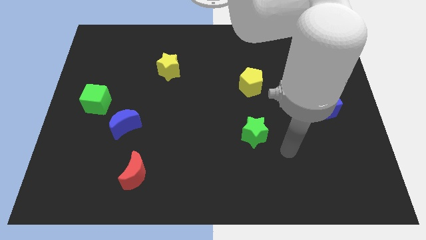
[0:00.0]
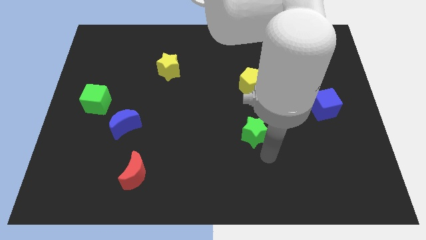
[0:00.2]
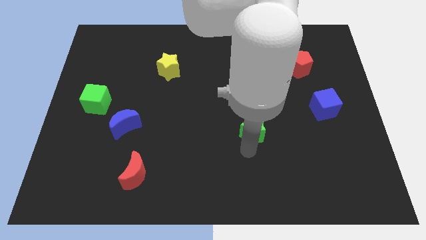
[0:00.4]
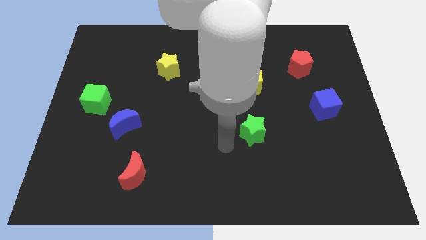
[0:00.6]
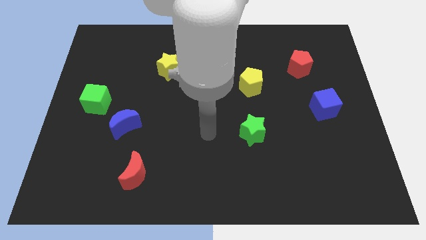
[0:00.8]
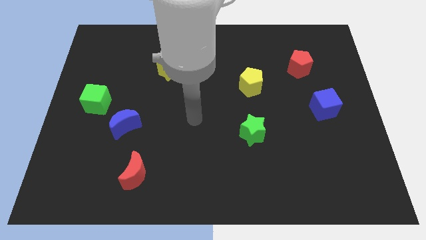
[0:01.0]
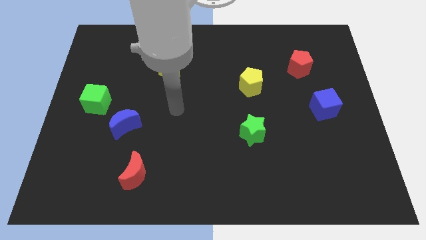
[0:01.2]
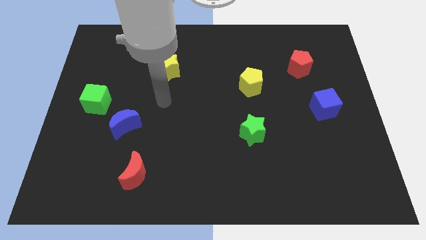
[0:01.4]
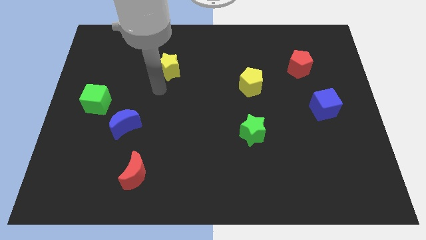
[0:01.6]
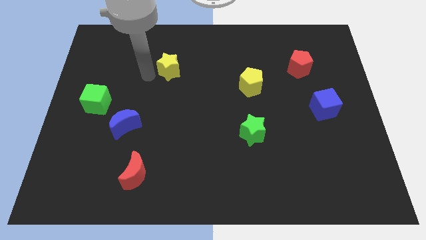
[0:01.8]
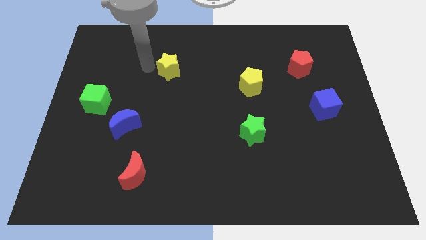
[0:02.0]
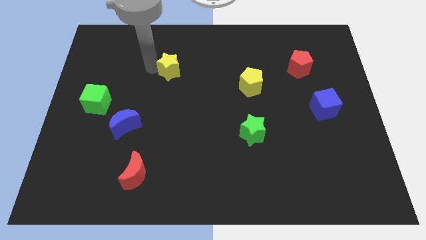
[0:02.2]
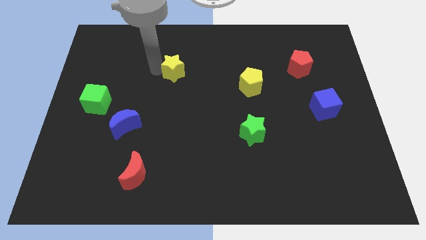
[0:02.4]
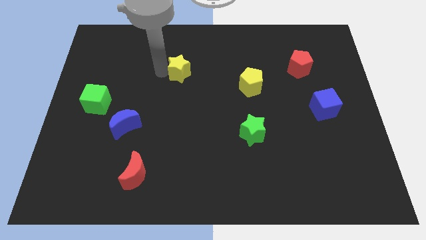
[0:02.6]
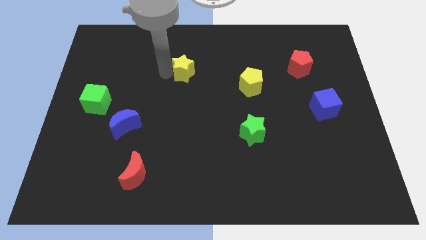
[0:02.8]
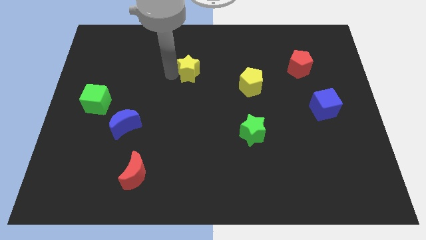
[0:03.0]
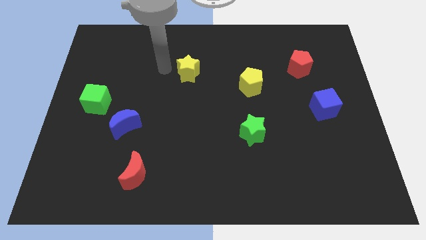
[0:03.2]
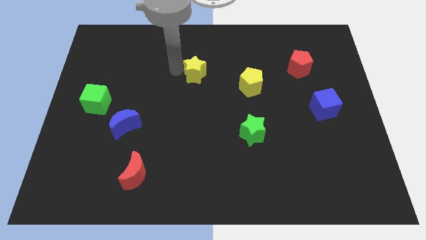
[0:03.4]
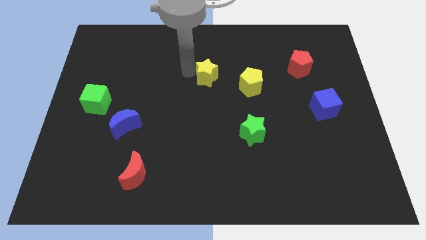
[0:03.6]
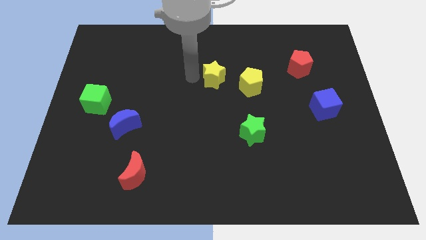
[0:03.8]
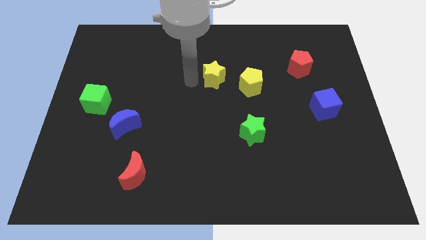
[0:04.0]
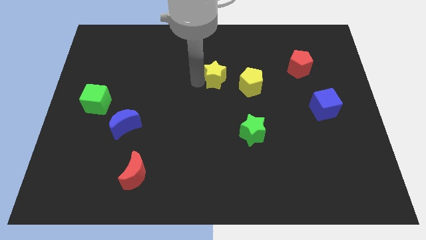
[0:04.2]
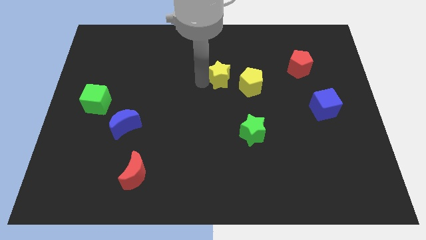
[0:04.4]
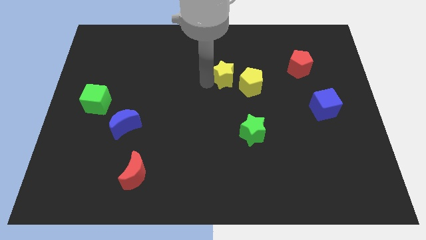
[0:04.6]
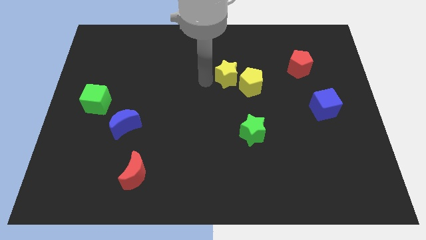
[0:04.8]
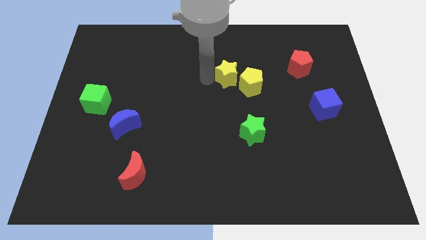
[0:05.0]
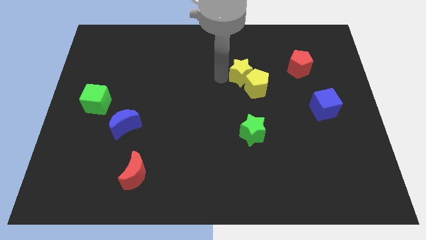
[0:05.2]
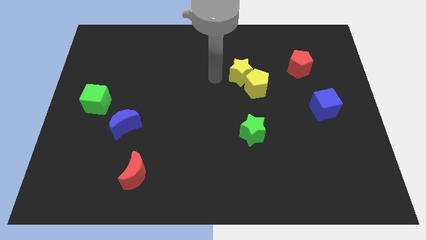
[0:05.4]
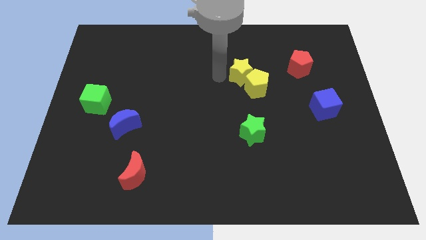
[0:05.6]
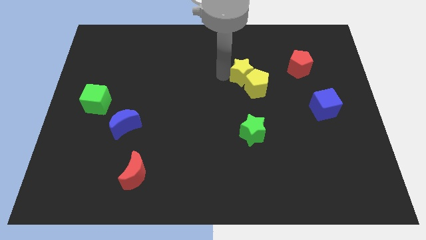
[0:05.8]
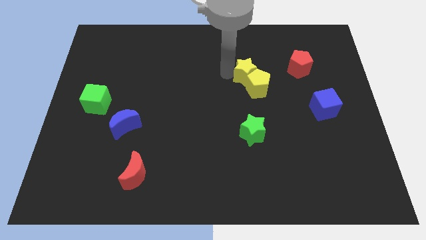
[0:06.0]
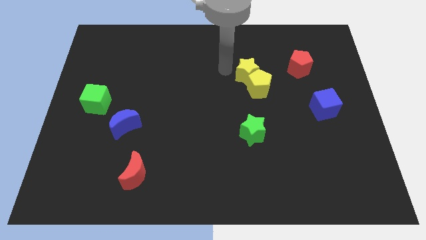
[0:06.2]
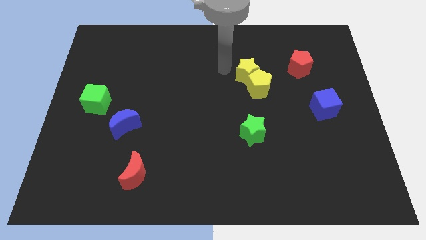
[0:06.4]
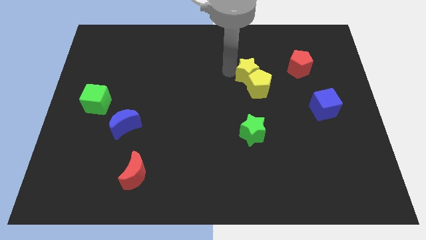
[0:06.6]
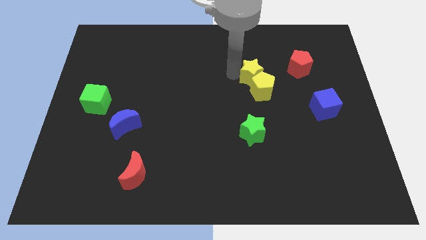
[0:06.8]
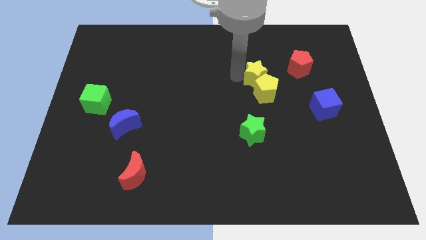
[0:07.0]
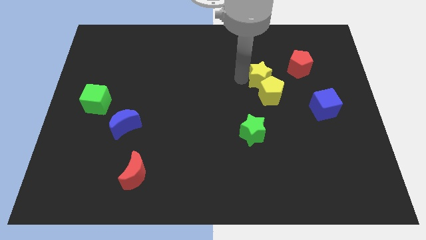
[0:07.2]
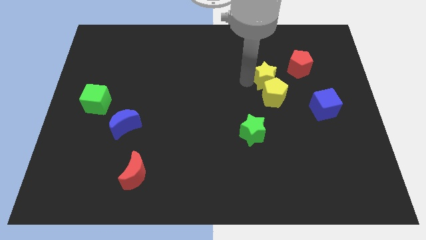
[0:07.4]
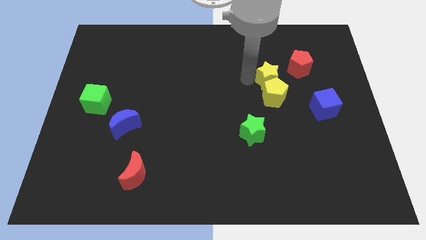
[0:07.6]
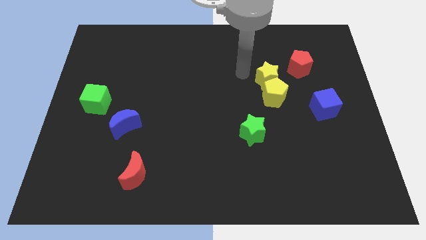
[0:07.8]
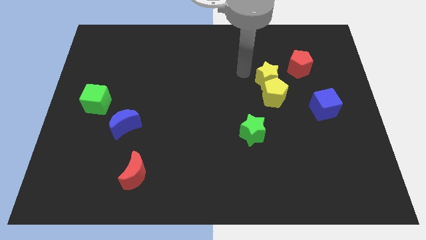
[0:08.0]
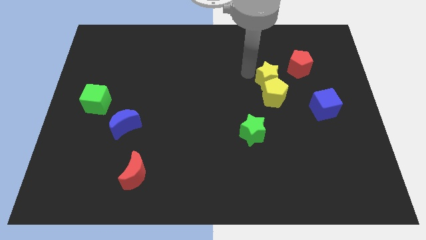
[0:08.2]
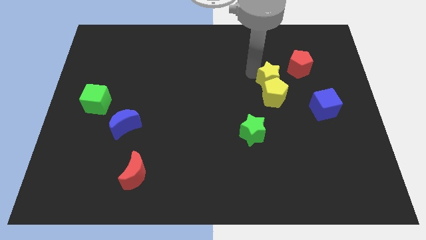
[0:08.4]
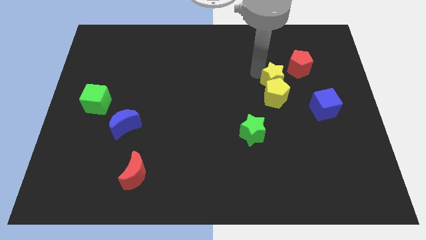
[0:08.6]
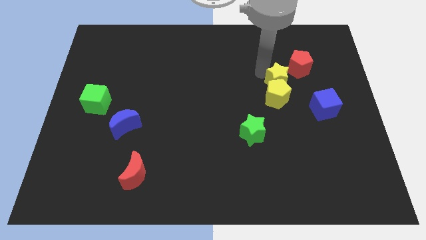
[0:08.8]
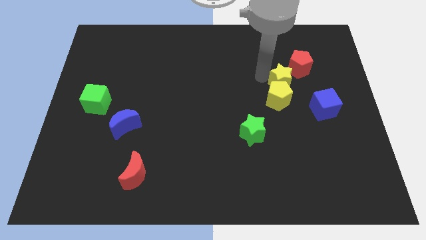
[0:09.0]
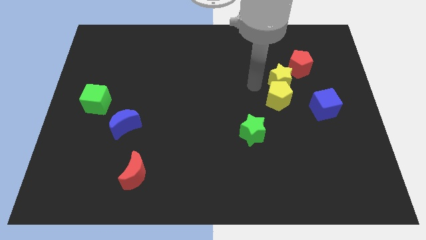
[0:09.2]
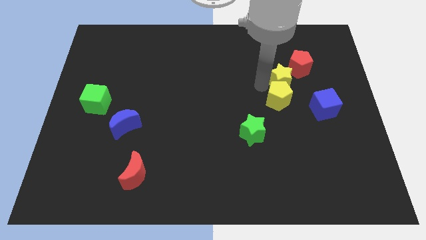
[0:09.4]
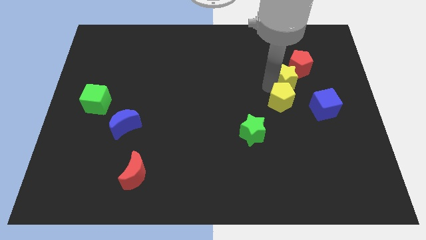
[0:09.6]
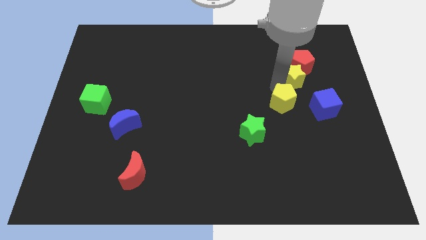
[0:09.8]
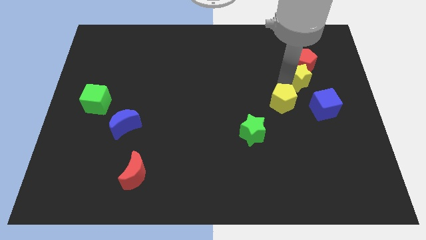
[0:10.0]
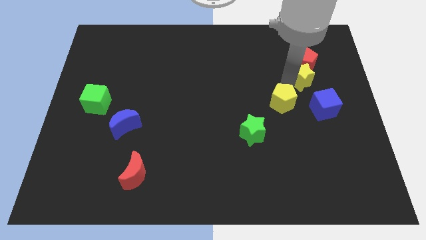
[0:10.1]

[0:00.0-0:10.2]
push the yellow star to the top of the blue cube

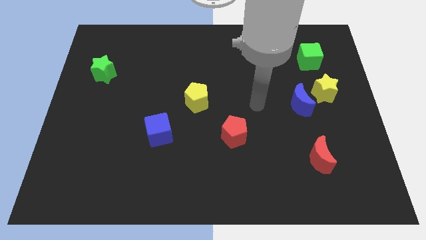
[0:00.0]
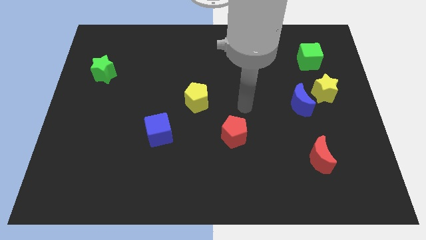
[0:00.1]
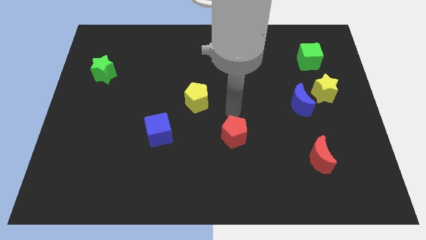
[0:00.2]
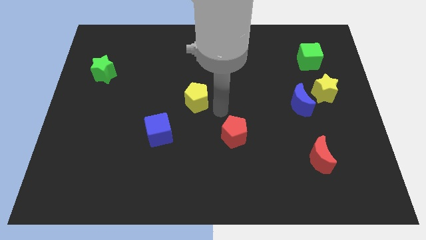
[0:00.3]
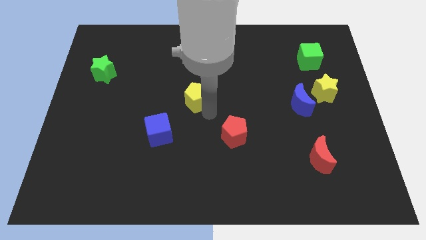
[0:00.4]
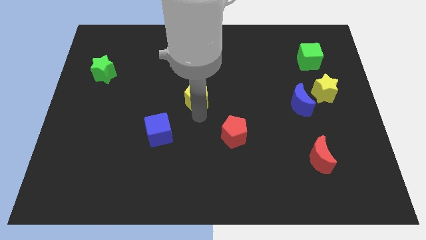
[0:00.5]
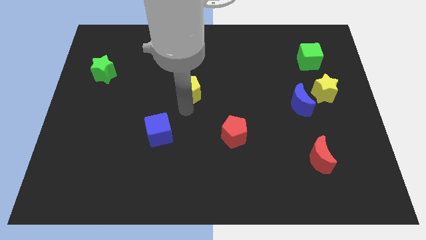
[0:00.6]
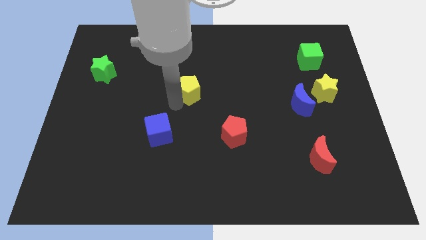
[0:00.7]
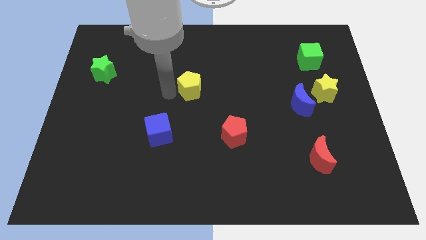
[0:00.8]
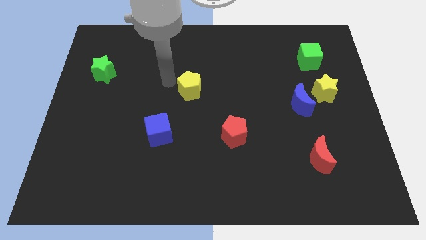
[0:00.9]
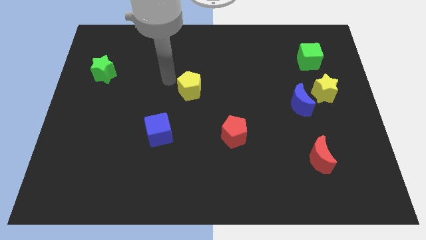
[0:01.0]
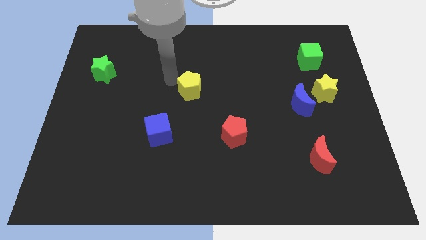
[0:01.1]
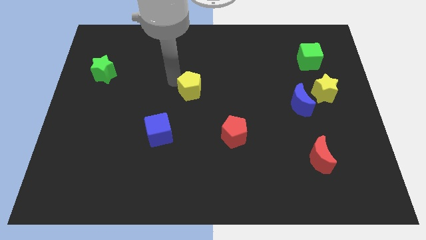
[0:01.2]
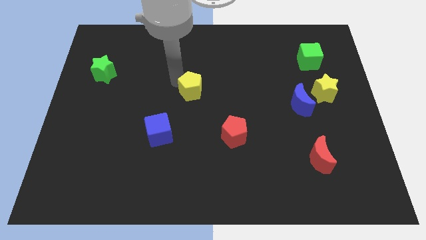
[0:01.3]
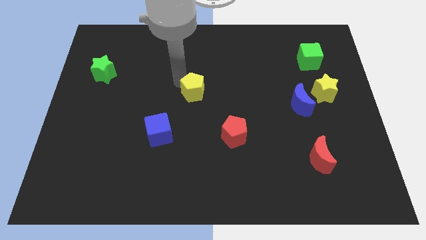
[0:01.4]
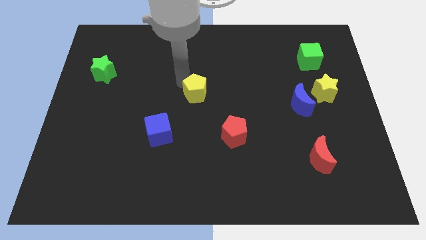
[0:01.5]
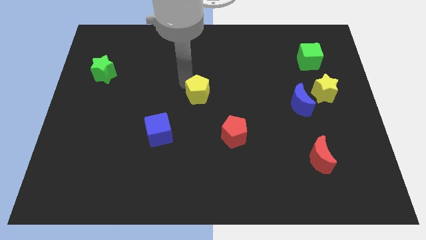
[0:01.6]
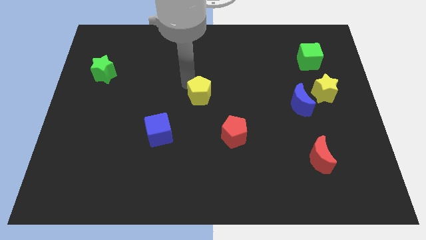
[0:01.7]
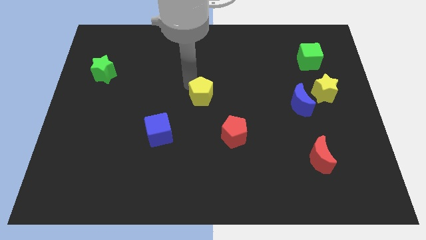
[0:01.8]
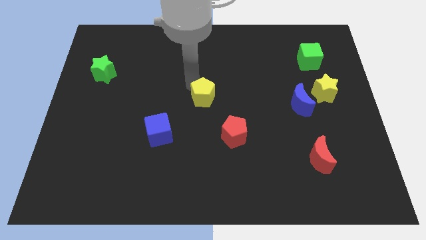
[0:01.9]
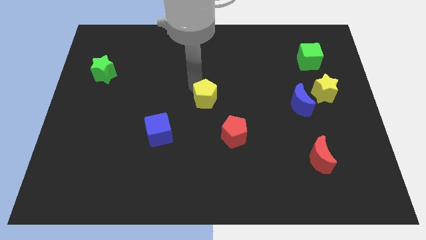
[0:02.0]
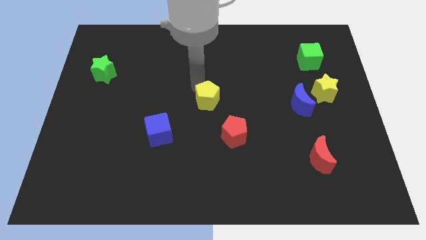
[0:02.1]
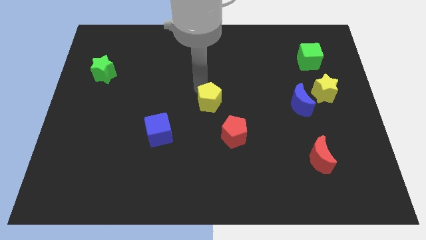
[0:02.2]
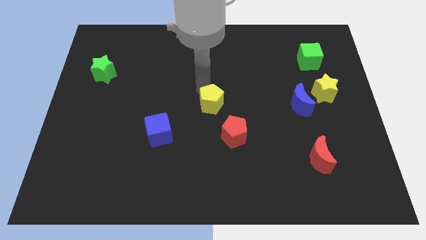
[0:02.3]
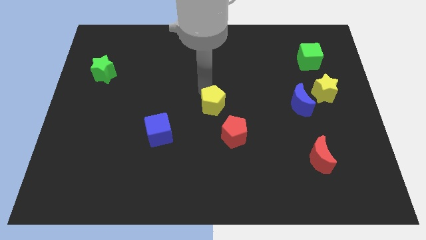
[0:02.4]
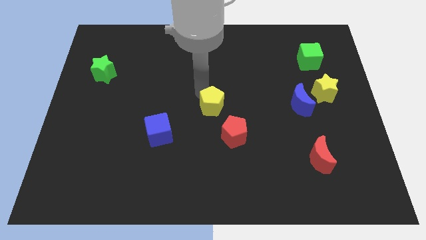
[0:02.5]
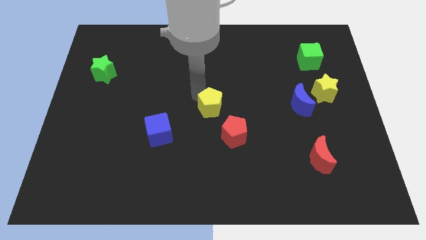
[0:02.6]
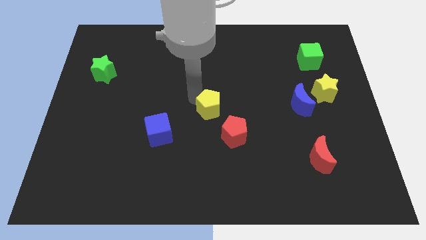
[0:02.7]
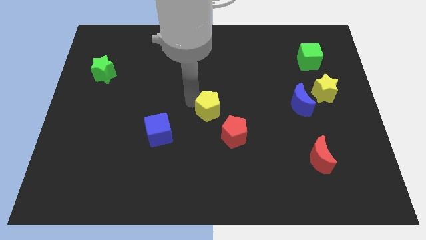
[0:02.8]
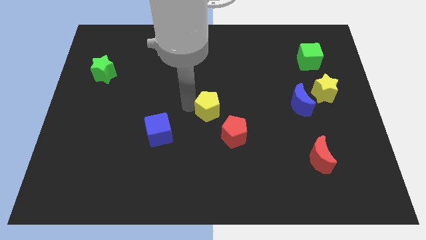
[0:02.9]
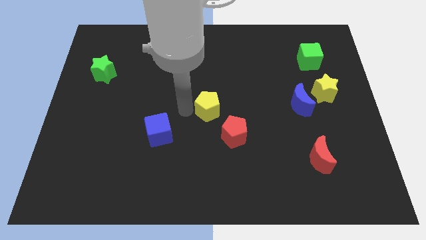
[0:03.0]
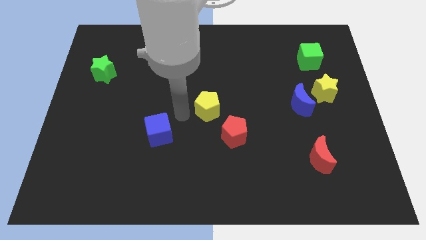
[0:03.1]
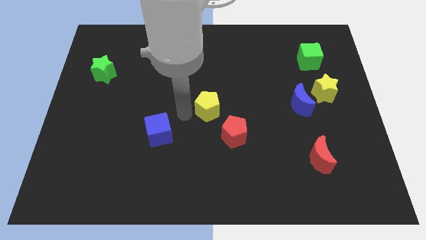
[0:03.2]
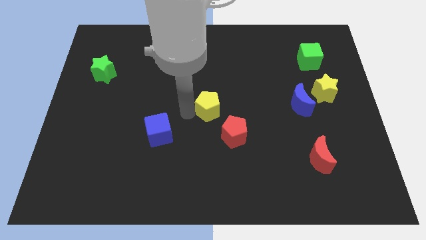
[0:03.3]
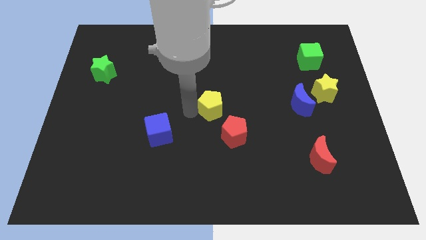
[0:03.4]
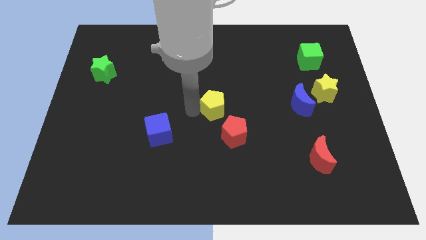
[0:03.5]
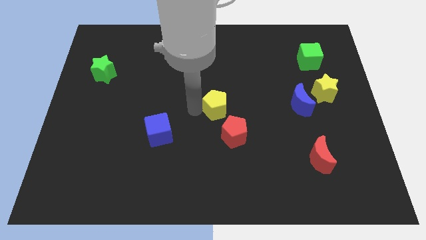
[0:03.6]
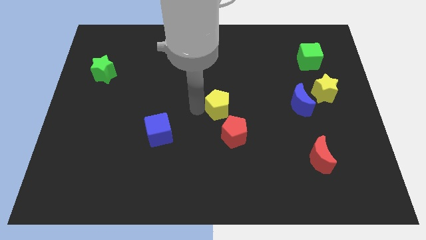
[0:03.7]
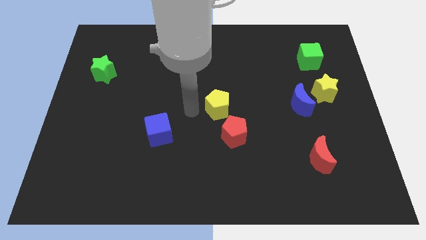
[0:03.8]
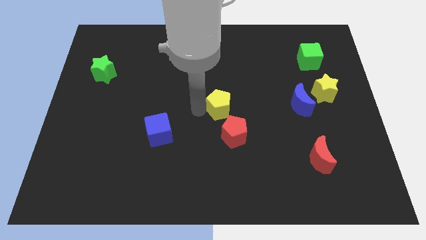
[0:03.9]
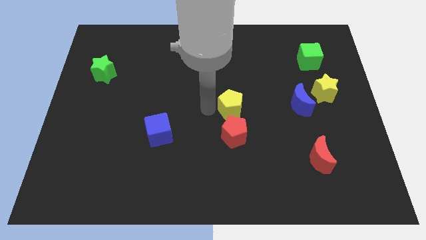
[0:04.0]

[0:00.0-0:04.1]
push the yellow pentagon left of the blue moon
